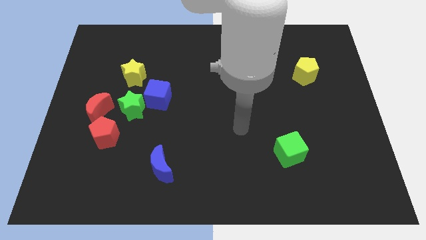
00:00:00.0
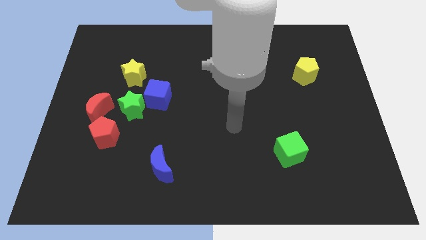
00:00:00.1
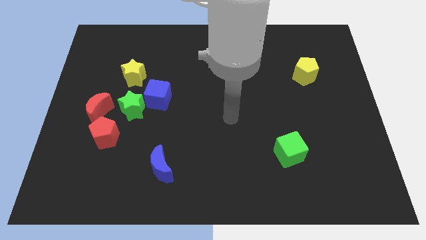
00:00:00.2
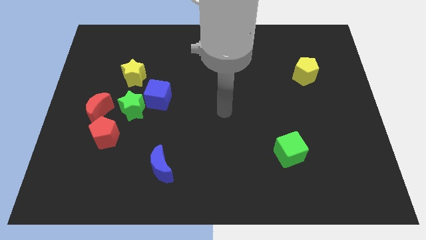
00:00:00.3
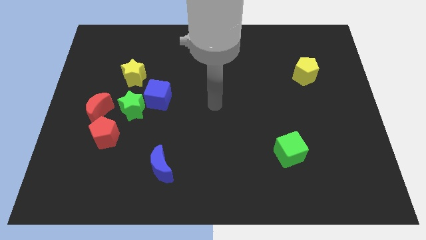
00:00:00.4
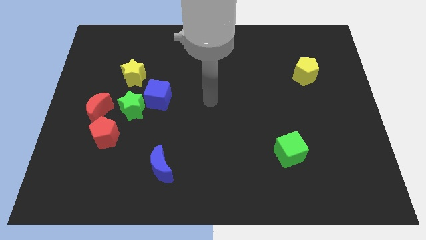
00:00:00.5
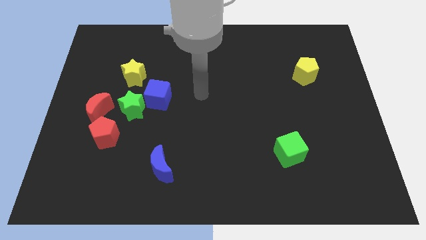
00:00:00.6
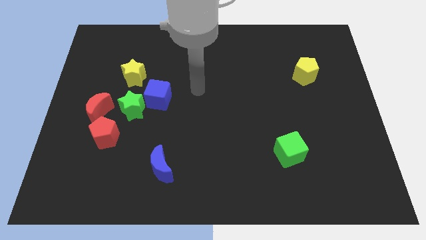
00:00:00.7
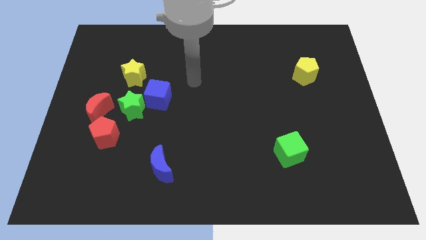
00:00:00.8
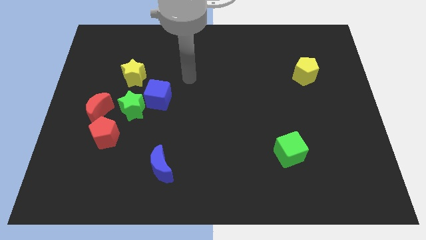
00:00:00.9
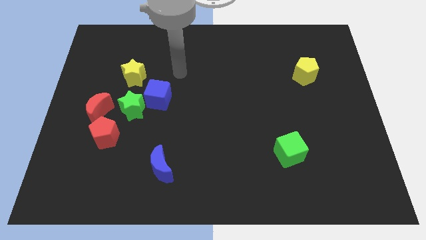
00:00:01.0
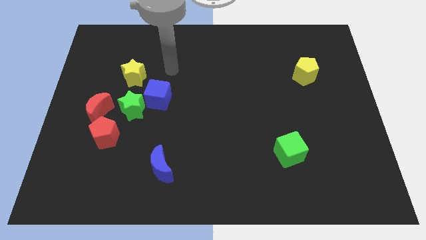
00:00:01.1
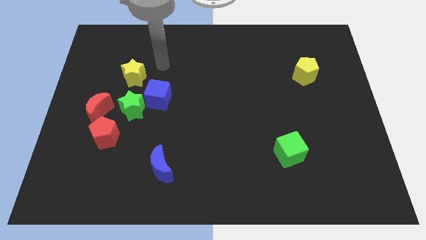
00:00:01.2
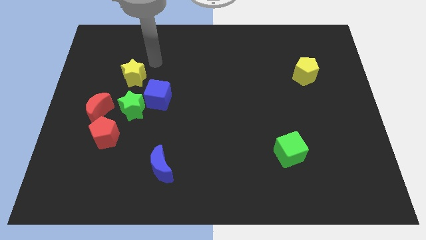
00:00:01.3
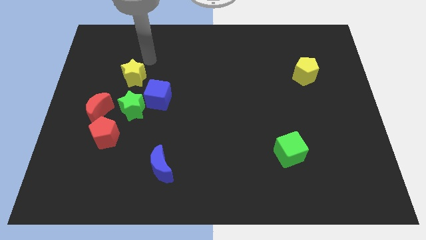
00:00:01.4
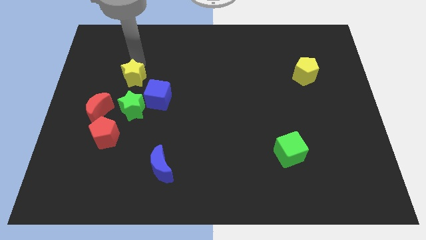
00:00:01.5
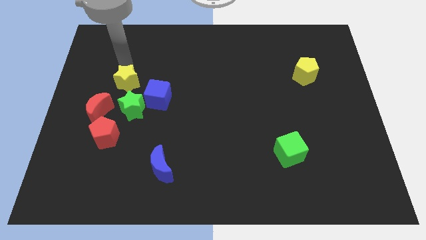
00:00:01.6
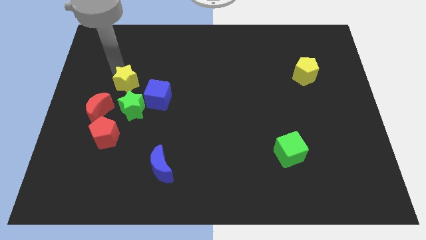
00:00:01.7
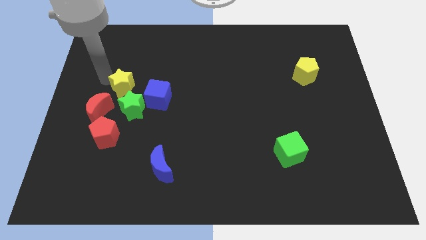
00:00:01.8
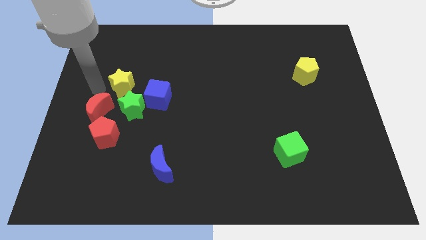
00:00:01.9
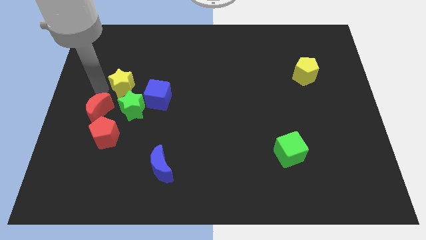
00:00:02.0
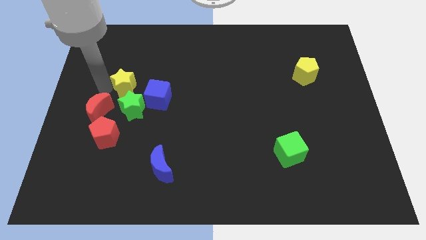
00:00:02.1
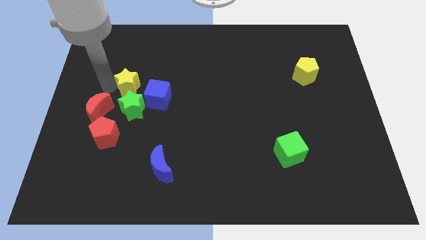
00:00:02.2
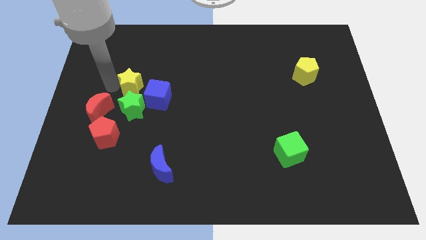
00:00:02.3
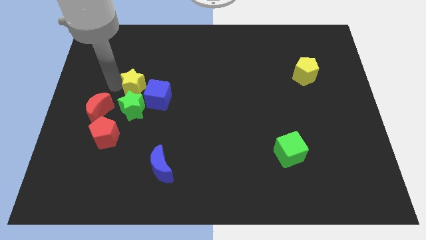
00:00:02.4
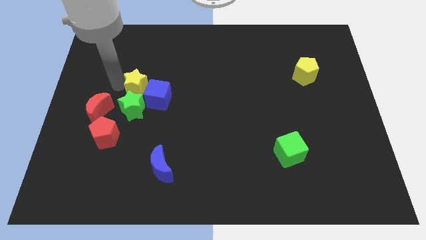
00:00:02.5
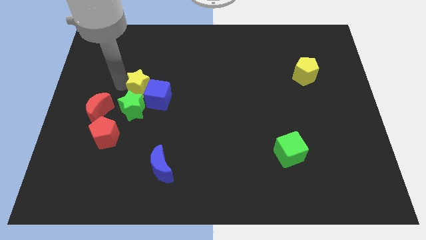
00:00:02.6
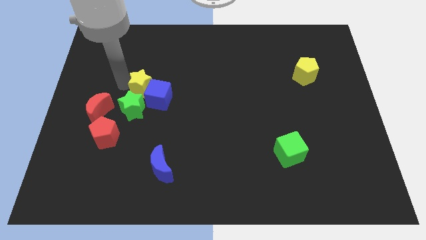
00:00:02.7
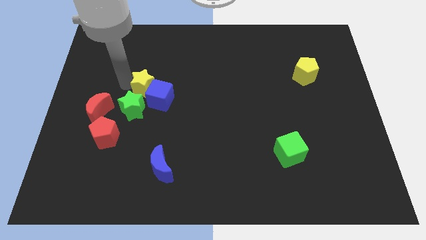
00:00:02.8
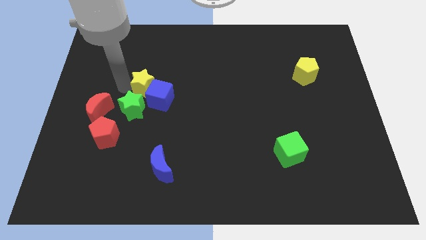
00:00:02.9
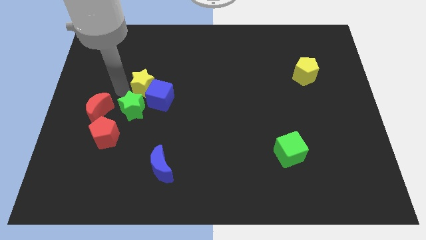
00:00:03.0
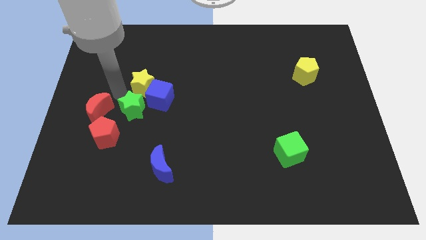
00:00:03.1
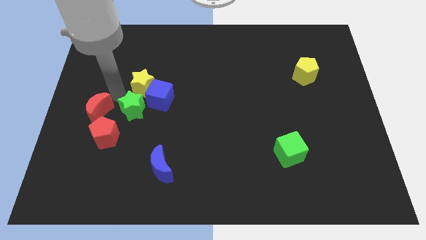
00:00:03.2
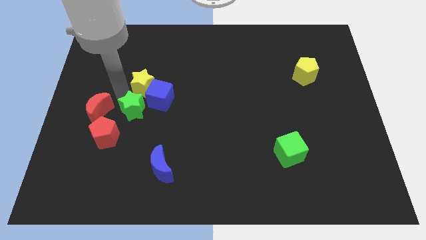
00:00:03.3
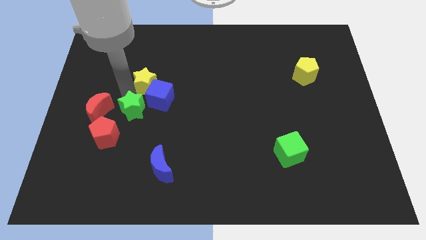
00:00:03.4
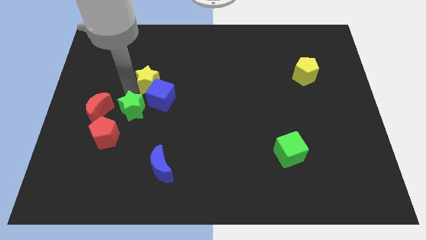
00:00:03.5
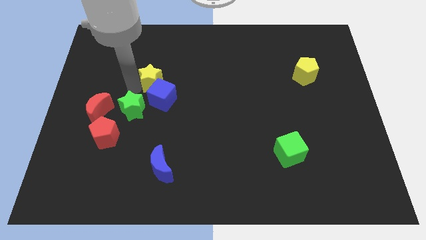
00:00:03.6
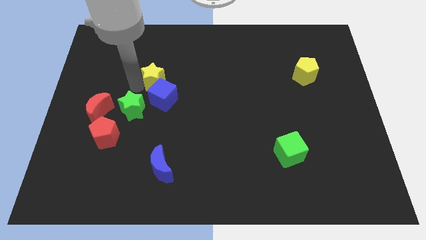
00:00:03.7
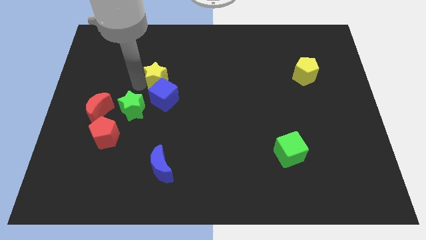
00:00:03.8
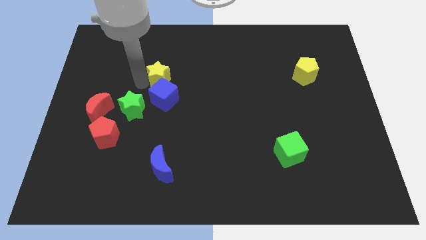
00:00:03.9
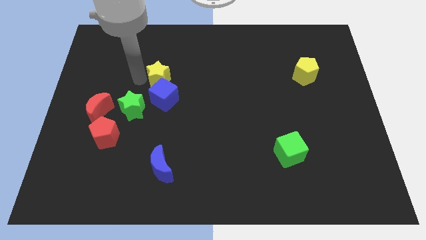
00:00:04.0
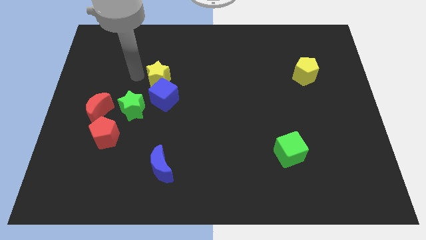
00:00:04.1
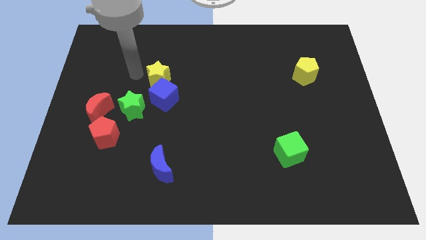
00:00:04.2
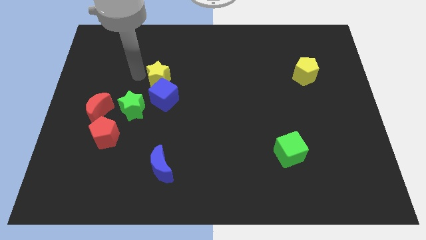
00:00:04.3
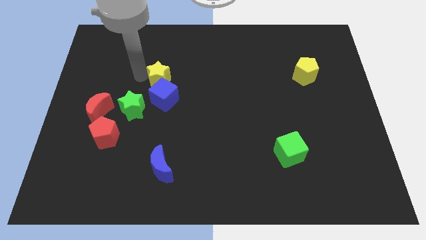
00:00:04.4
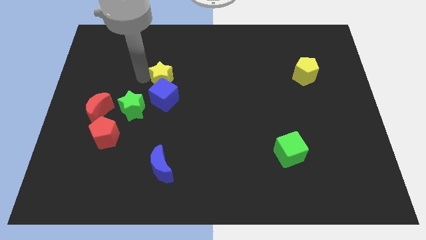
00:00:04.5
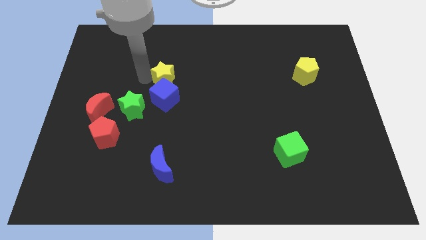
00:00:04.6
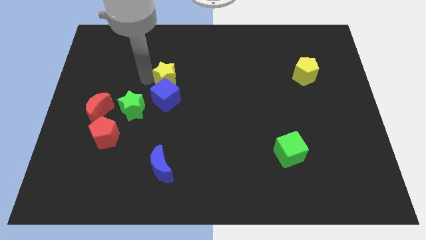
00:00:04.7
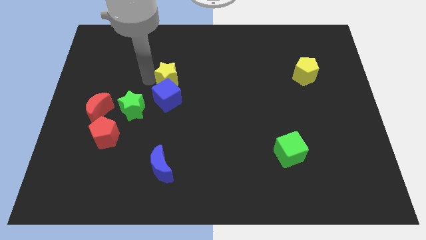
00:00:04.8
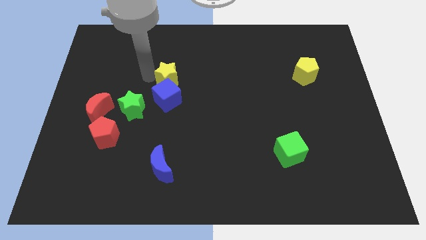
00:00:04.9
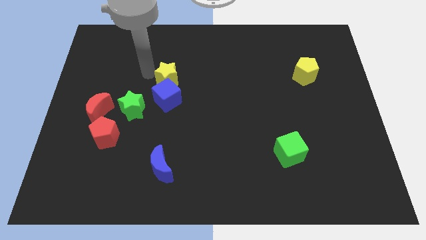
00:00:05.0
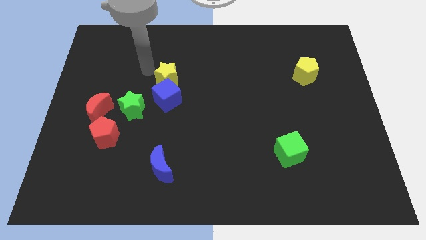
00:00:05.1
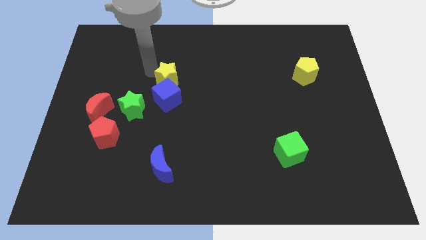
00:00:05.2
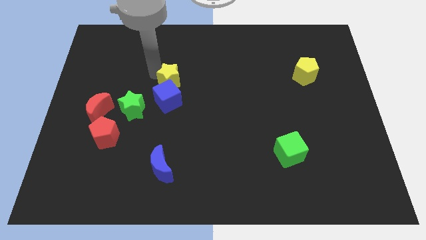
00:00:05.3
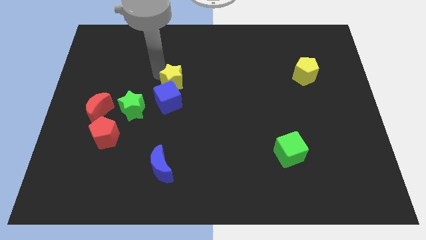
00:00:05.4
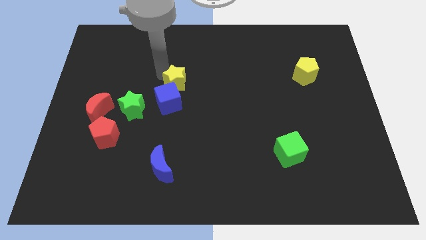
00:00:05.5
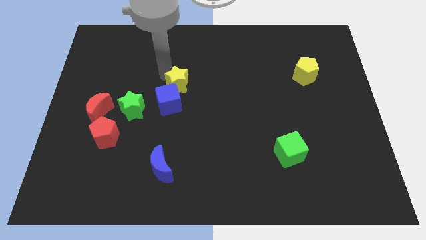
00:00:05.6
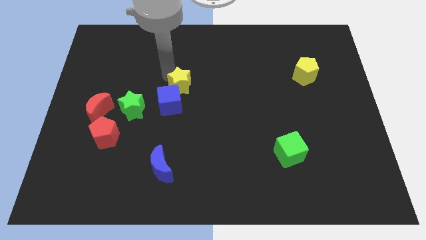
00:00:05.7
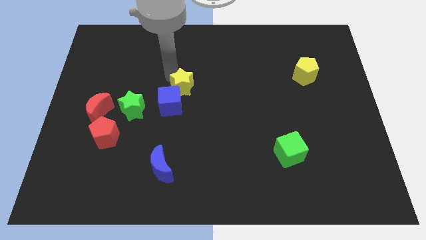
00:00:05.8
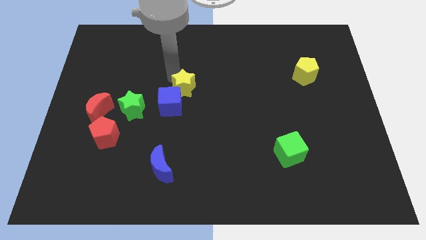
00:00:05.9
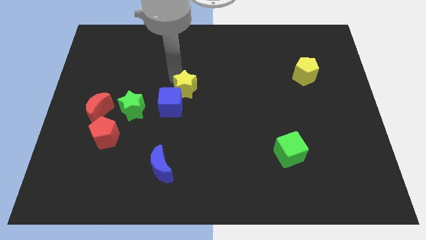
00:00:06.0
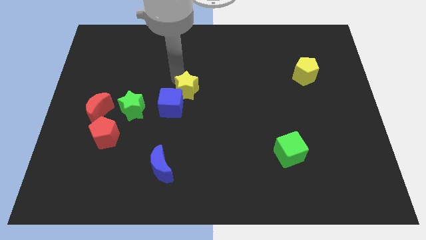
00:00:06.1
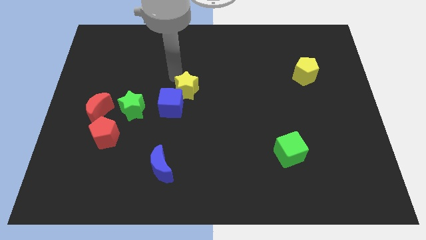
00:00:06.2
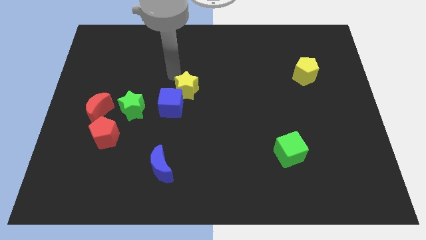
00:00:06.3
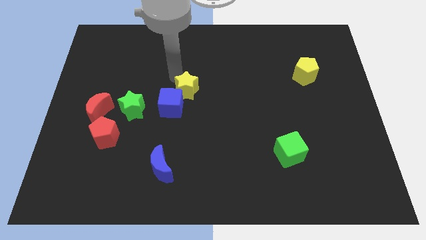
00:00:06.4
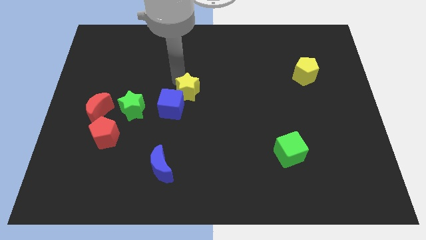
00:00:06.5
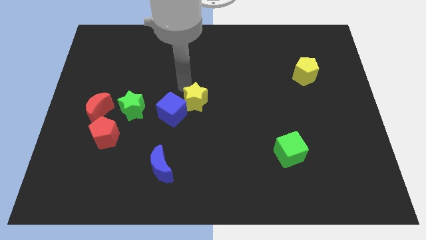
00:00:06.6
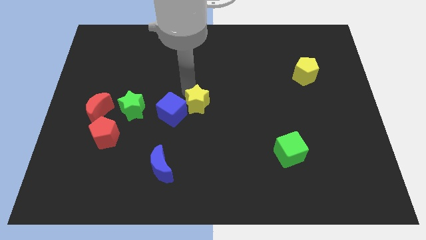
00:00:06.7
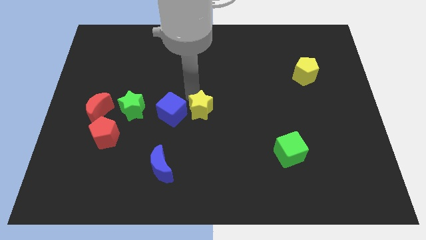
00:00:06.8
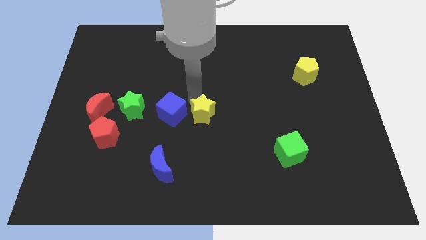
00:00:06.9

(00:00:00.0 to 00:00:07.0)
push the yellow star downwards and then to the right

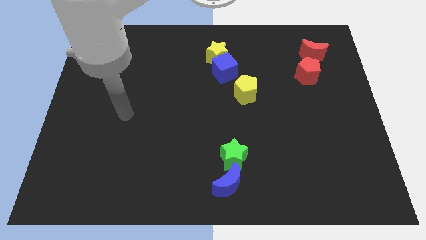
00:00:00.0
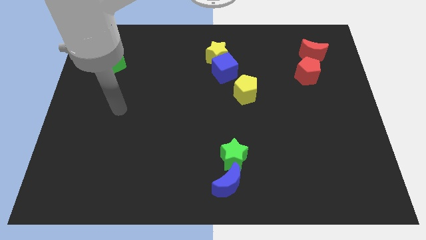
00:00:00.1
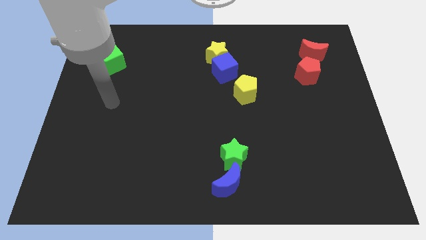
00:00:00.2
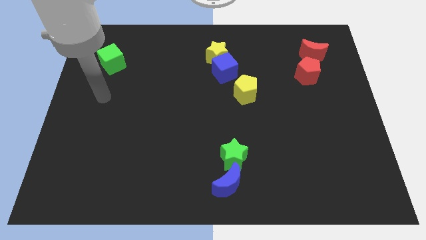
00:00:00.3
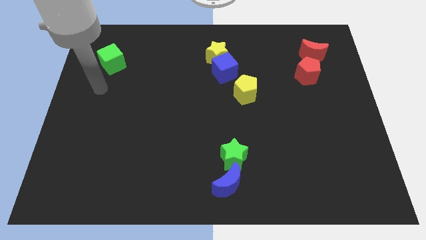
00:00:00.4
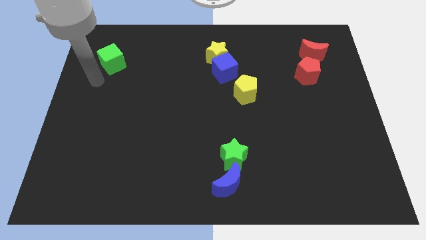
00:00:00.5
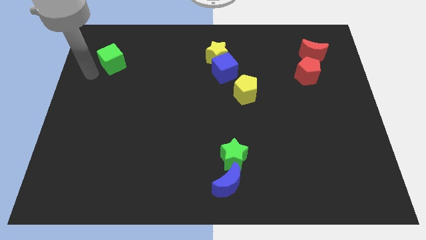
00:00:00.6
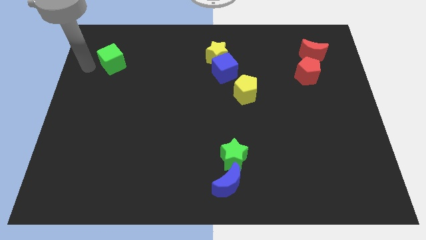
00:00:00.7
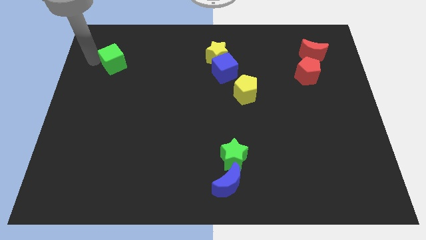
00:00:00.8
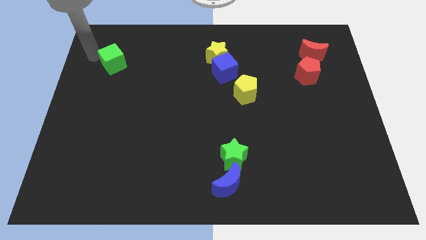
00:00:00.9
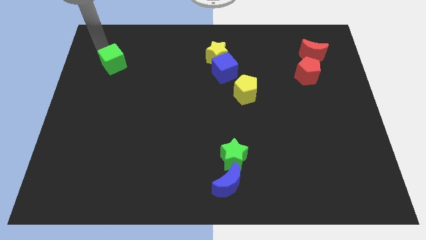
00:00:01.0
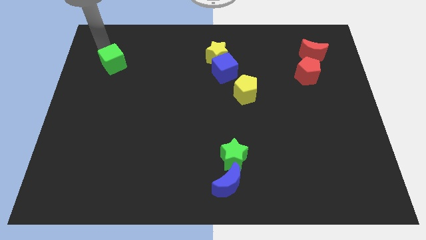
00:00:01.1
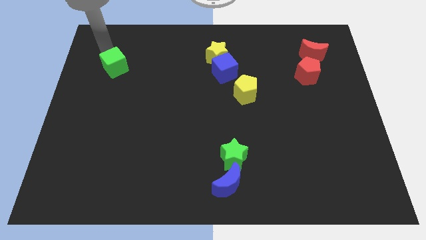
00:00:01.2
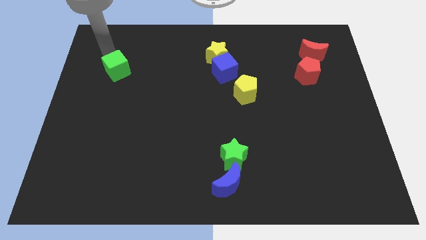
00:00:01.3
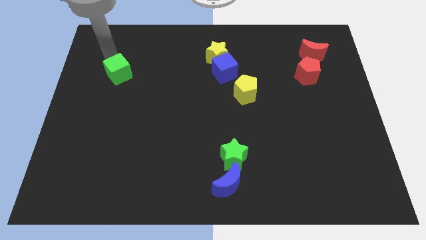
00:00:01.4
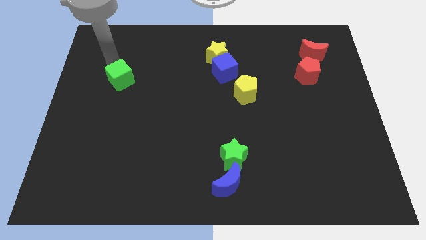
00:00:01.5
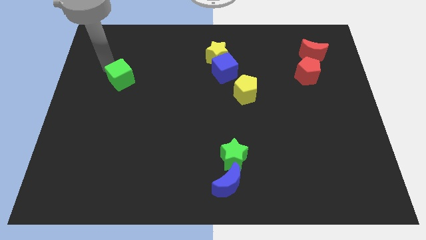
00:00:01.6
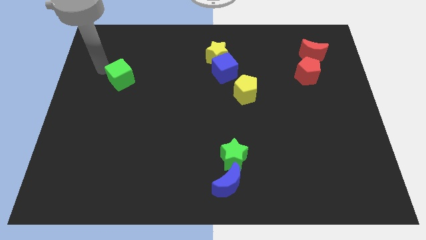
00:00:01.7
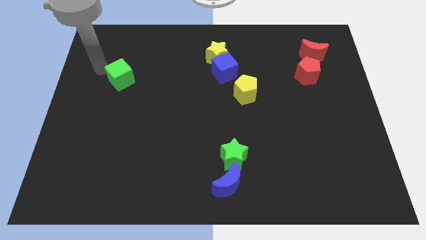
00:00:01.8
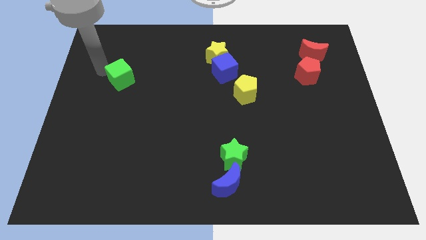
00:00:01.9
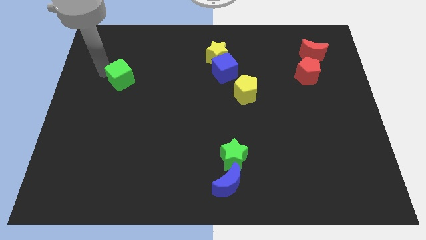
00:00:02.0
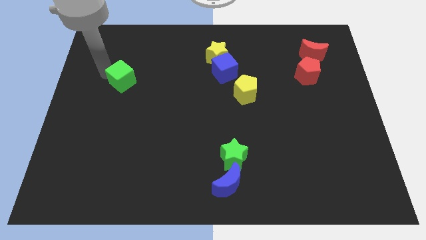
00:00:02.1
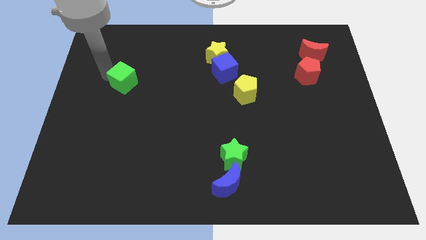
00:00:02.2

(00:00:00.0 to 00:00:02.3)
move the green cube diagonally down and to the right somewhat
